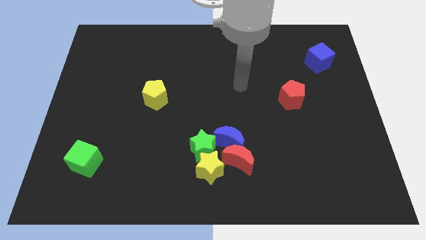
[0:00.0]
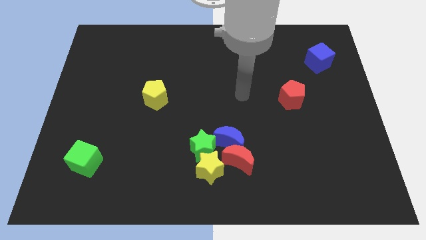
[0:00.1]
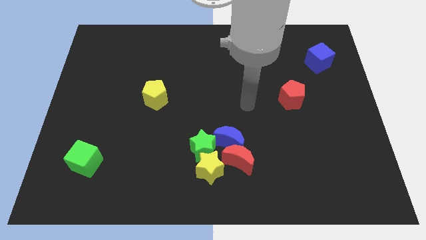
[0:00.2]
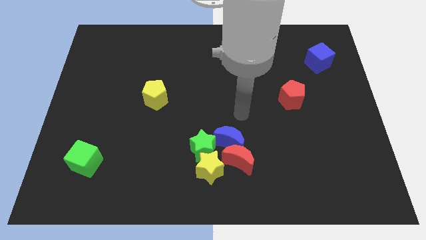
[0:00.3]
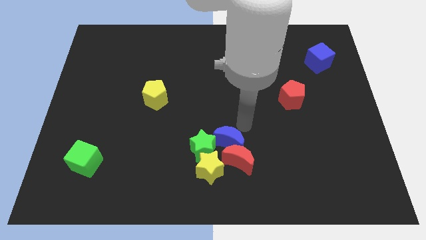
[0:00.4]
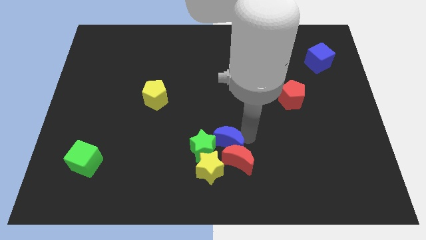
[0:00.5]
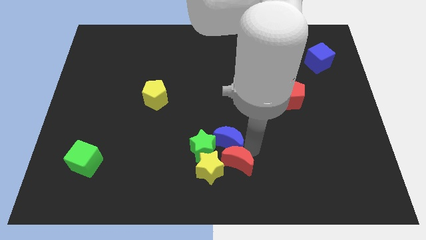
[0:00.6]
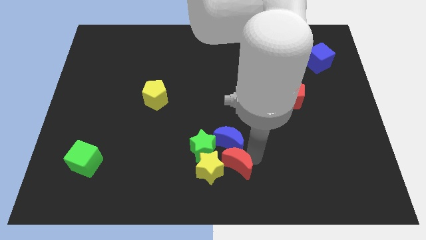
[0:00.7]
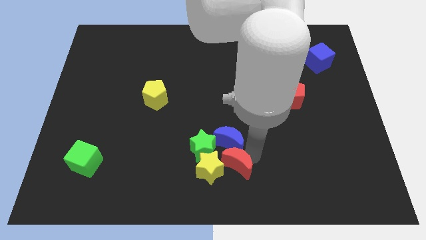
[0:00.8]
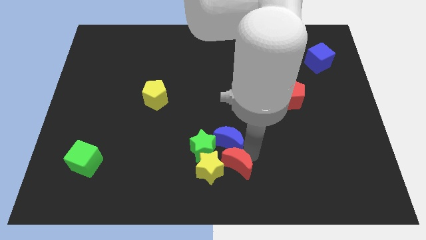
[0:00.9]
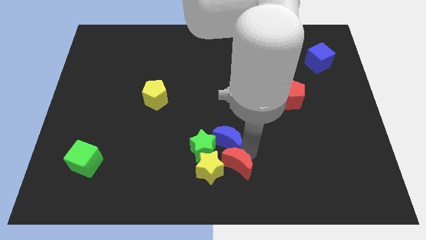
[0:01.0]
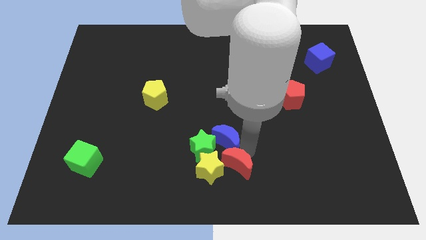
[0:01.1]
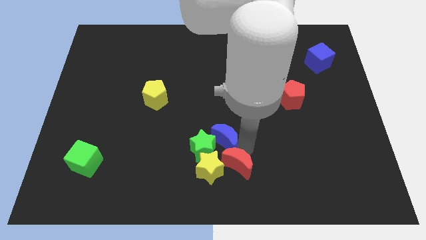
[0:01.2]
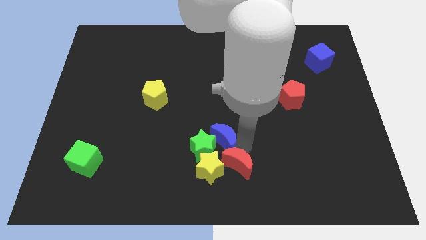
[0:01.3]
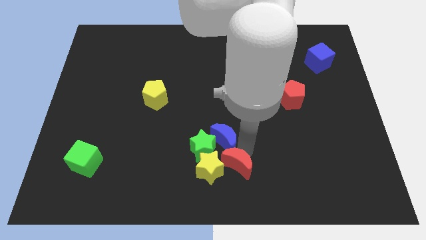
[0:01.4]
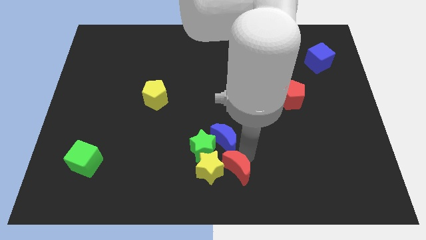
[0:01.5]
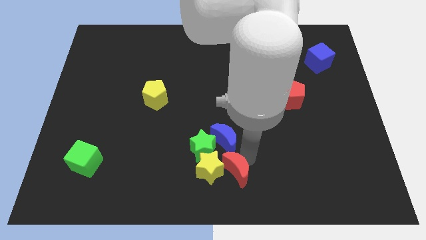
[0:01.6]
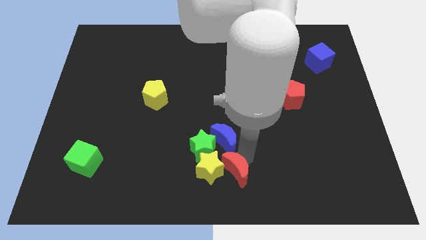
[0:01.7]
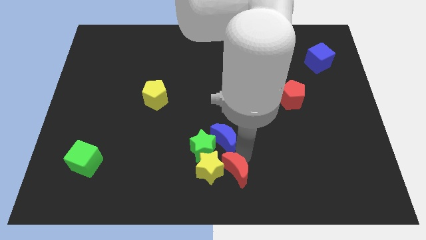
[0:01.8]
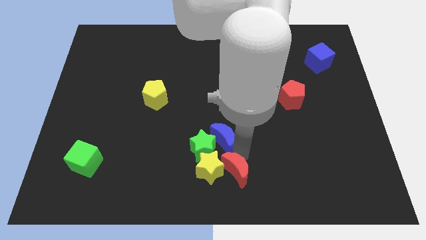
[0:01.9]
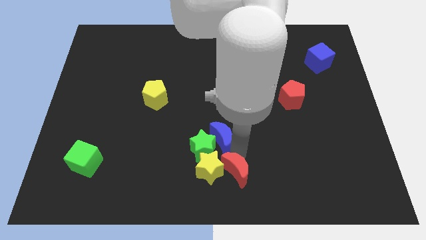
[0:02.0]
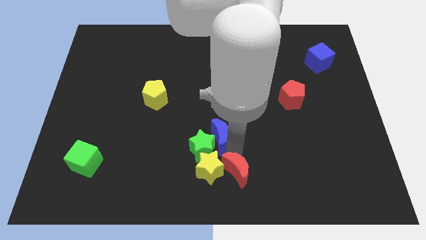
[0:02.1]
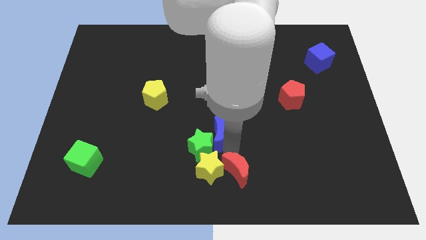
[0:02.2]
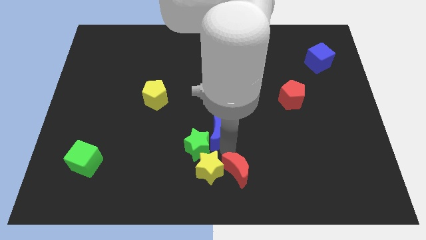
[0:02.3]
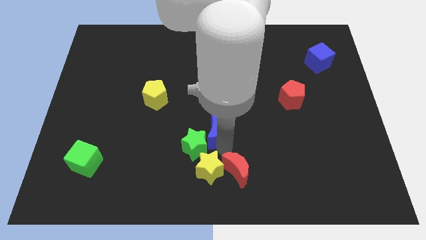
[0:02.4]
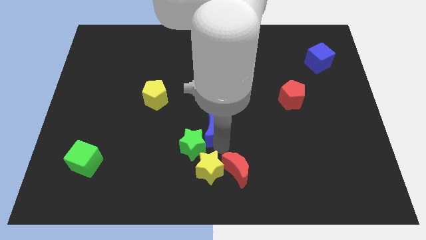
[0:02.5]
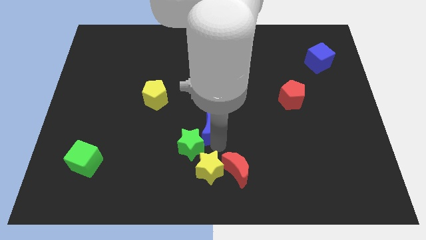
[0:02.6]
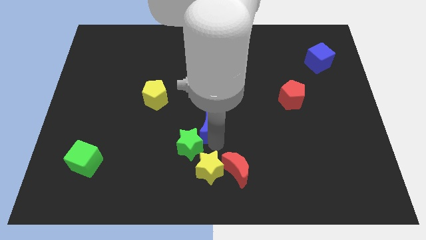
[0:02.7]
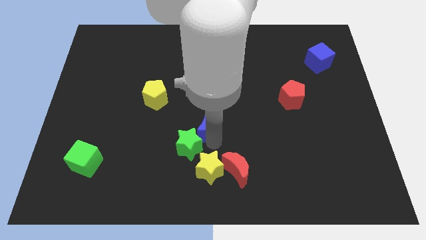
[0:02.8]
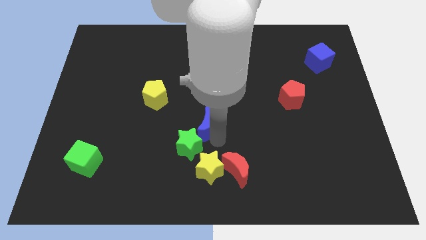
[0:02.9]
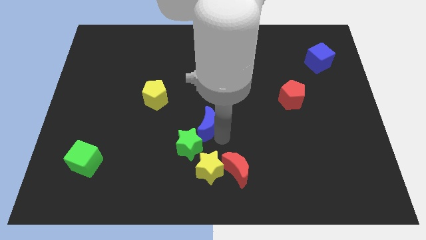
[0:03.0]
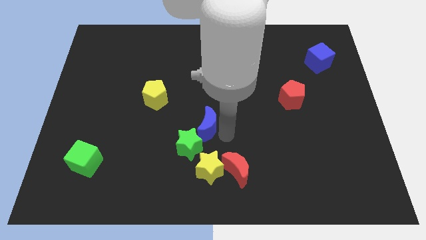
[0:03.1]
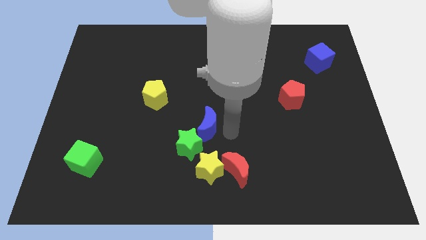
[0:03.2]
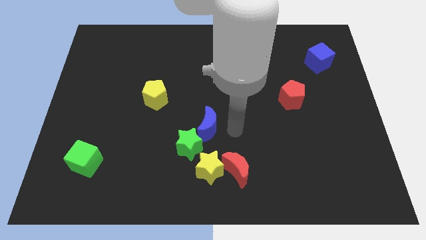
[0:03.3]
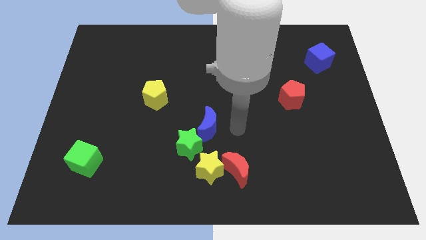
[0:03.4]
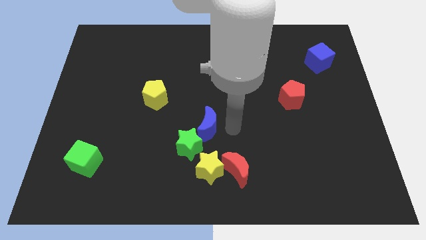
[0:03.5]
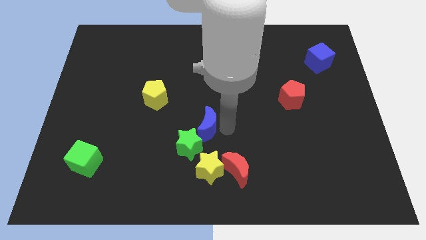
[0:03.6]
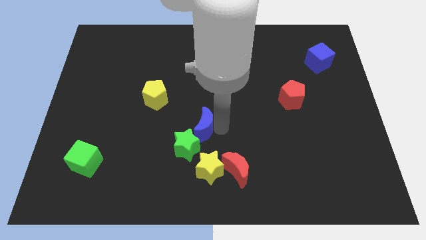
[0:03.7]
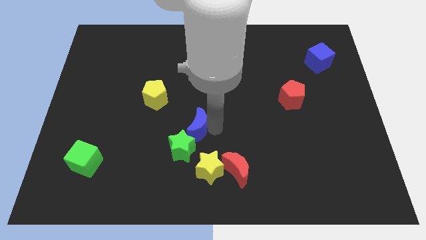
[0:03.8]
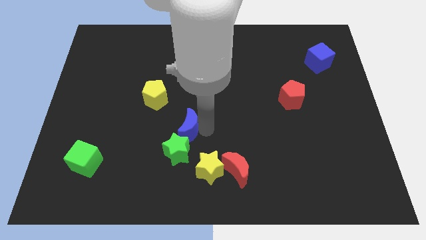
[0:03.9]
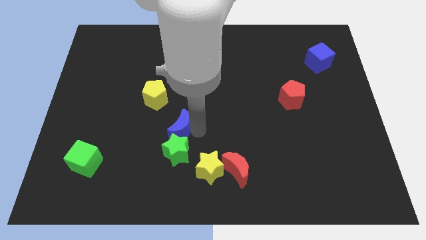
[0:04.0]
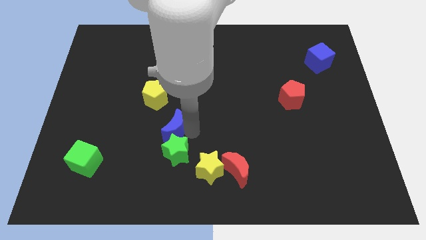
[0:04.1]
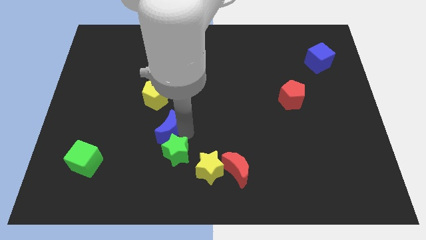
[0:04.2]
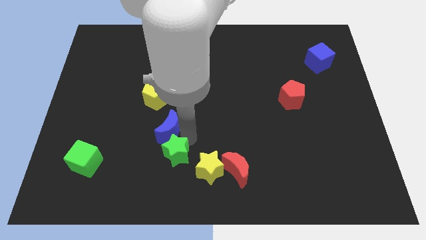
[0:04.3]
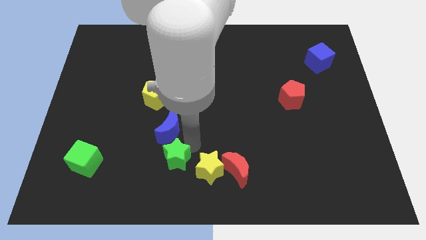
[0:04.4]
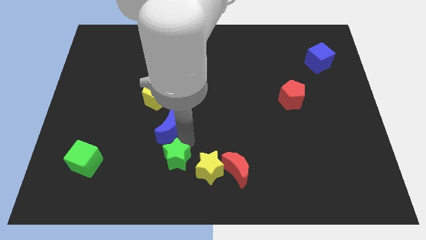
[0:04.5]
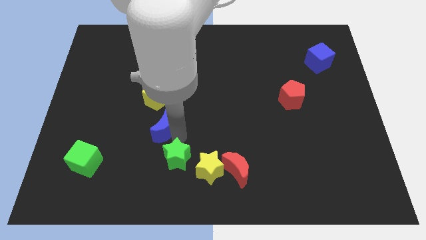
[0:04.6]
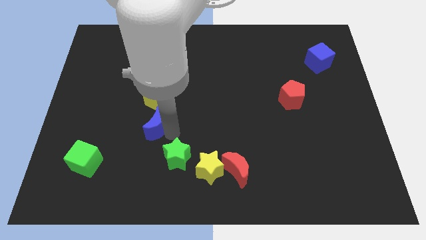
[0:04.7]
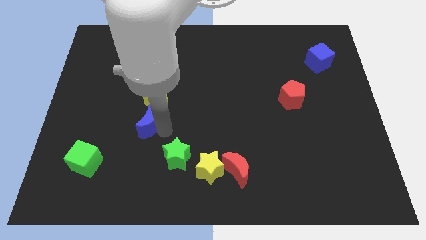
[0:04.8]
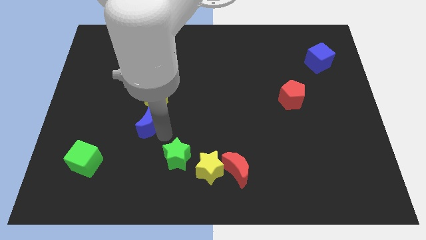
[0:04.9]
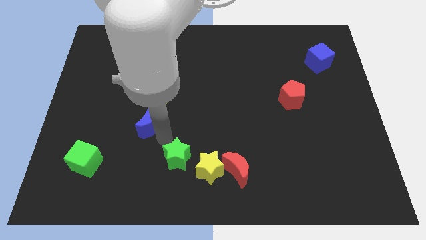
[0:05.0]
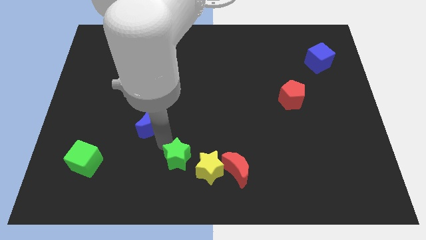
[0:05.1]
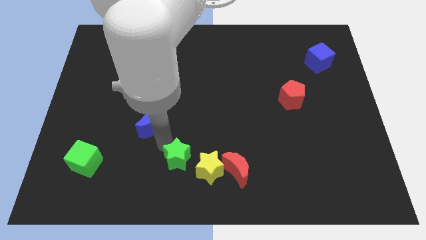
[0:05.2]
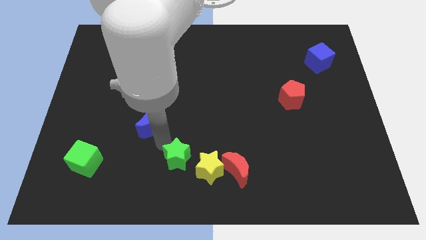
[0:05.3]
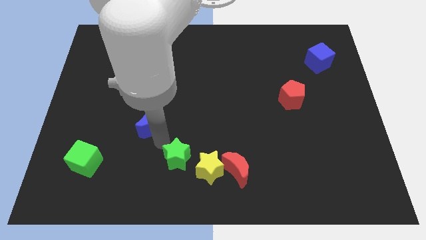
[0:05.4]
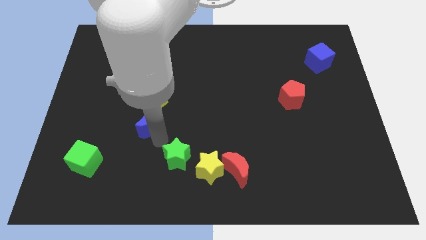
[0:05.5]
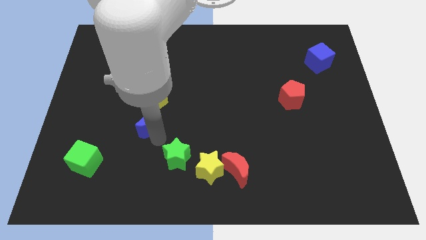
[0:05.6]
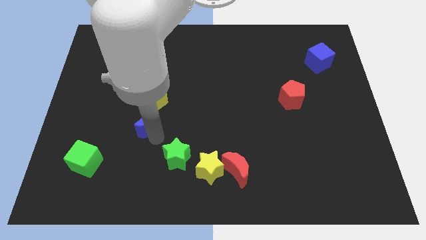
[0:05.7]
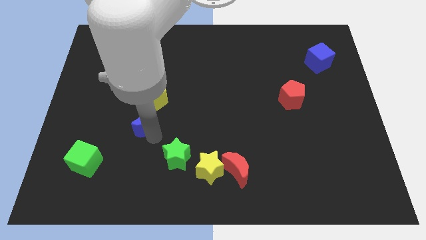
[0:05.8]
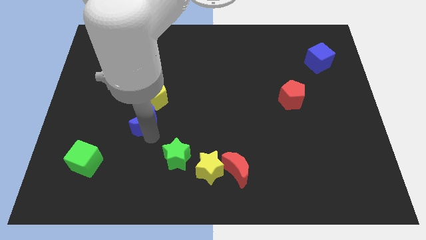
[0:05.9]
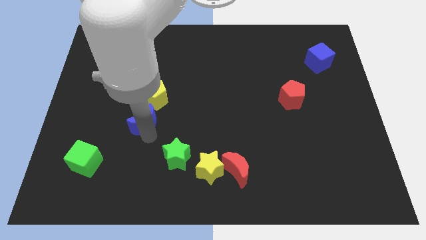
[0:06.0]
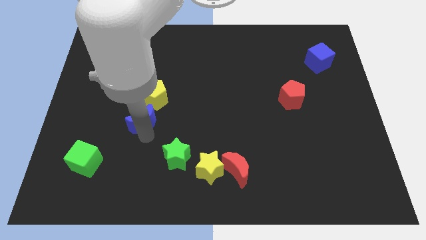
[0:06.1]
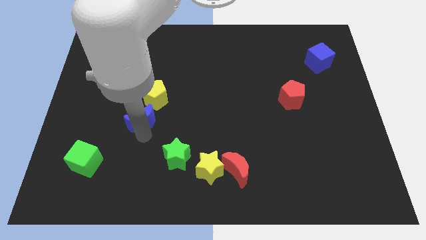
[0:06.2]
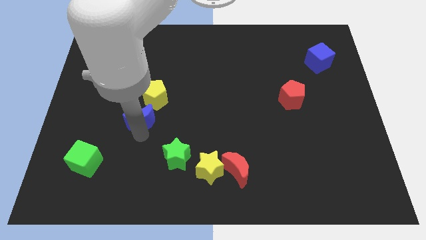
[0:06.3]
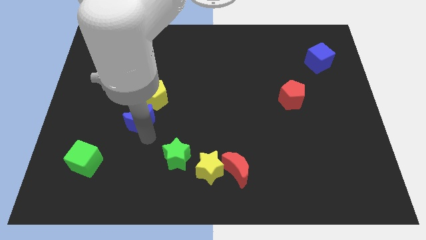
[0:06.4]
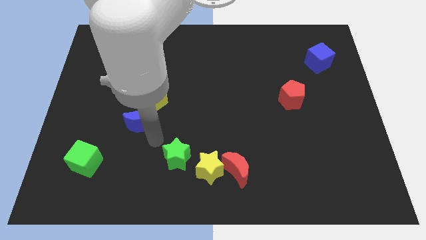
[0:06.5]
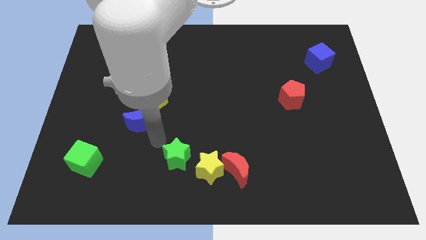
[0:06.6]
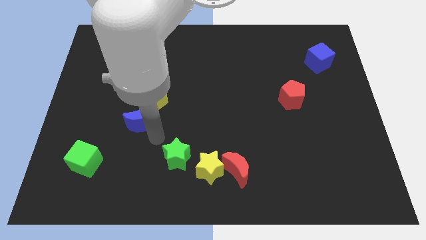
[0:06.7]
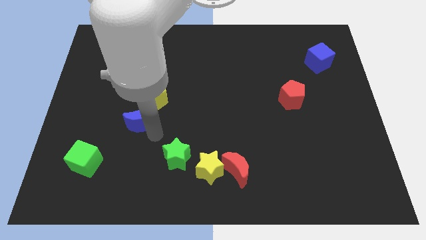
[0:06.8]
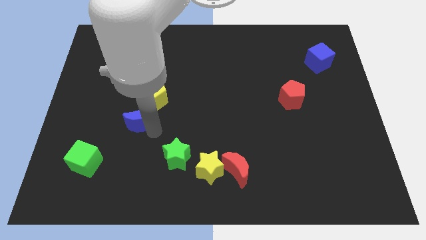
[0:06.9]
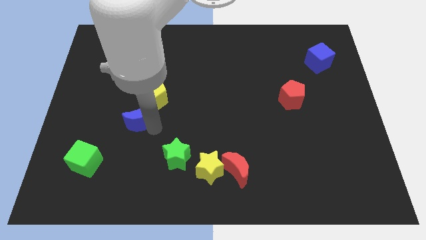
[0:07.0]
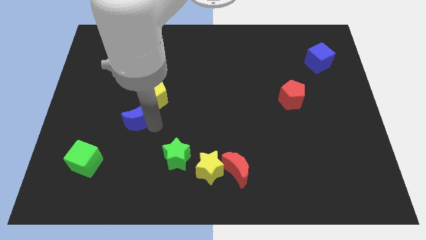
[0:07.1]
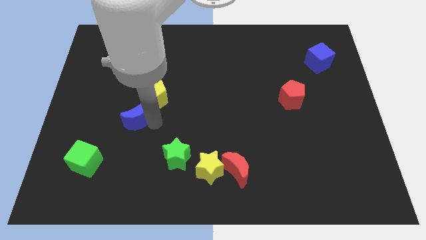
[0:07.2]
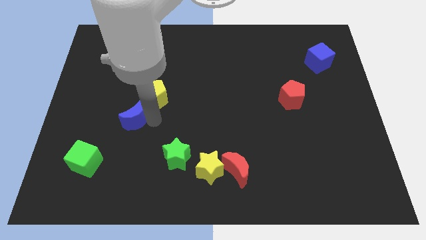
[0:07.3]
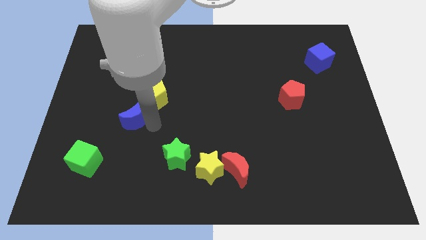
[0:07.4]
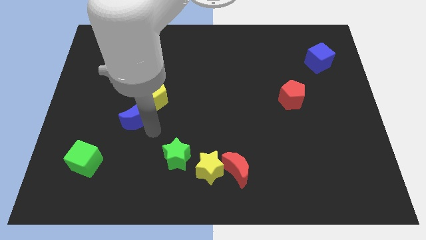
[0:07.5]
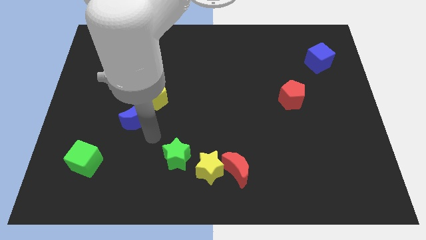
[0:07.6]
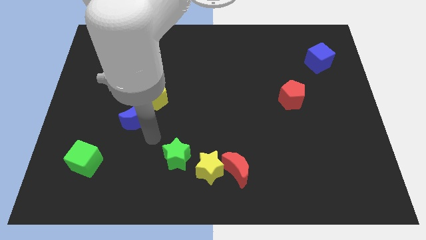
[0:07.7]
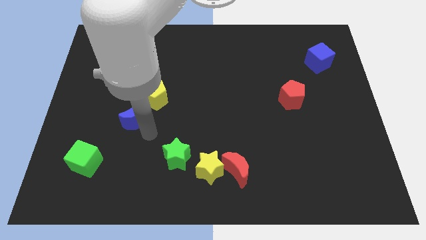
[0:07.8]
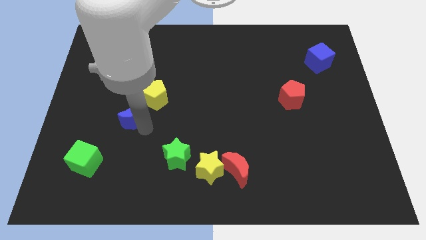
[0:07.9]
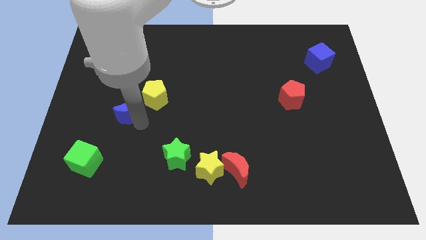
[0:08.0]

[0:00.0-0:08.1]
move the blue moon to the left of the yellow pentagon
